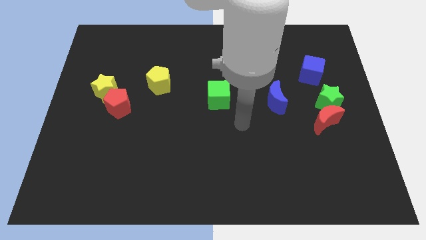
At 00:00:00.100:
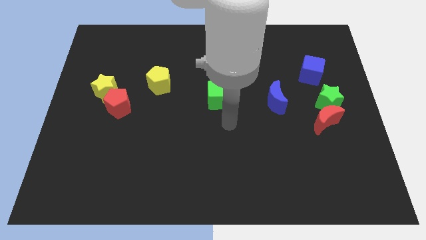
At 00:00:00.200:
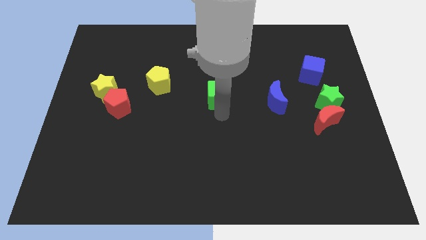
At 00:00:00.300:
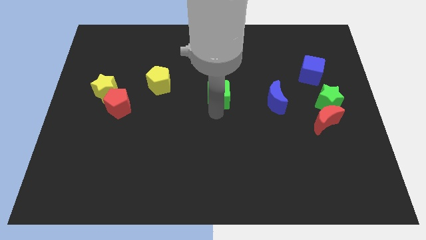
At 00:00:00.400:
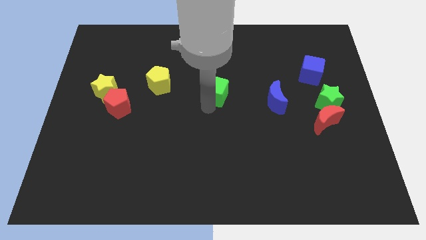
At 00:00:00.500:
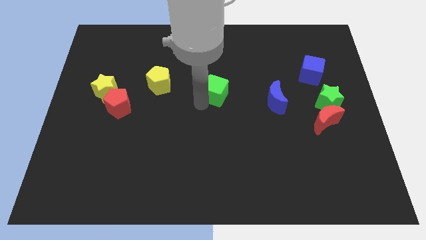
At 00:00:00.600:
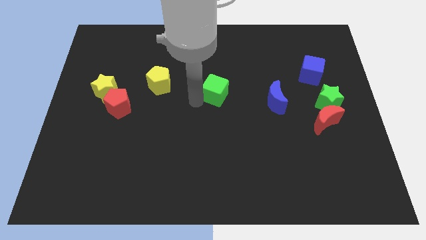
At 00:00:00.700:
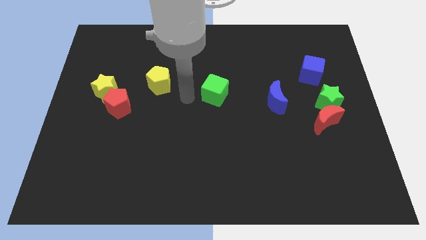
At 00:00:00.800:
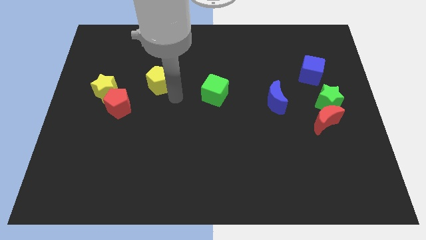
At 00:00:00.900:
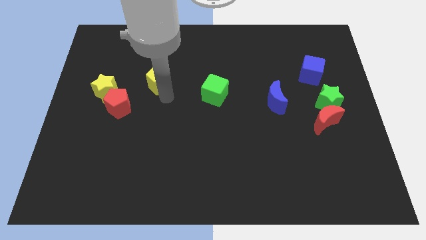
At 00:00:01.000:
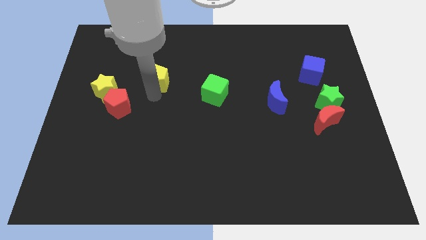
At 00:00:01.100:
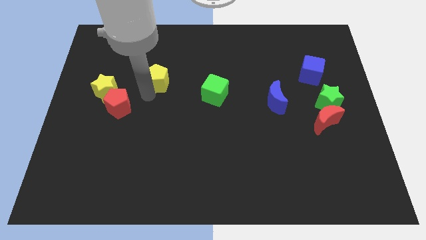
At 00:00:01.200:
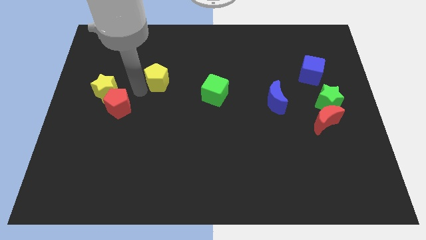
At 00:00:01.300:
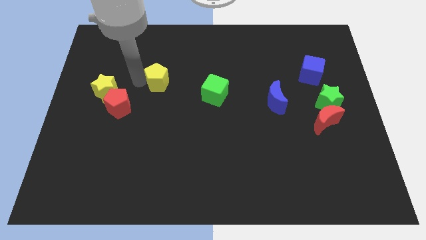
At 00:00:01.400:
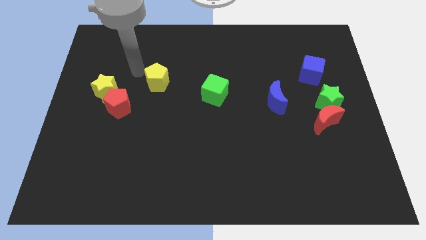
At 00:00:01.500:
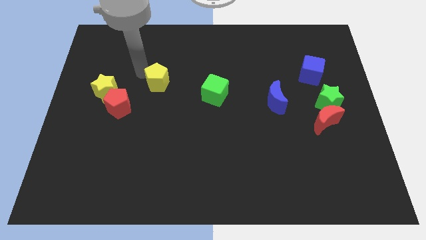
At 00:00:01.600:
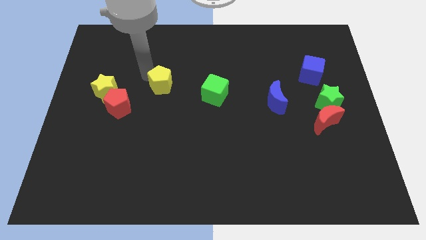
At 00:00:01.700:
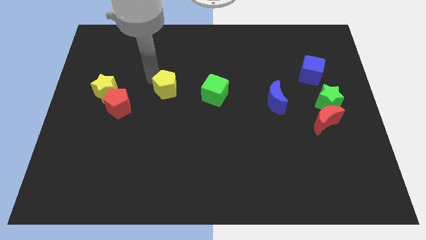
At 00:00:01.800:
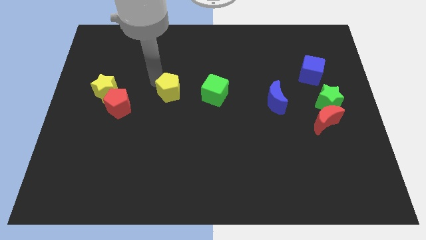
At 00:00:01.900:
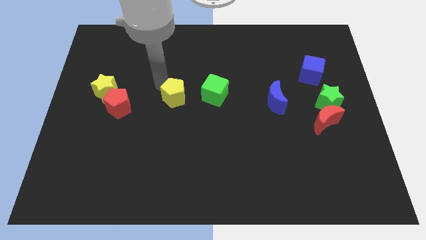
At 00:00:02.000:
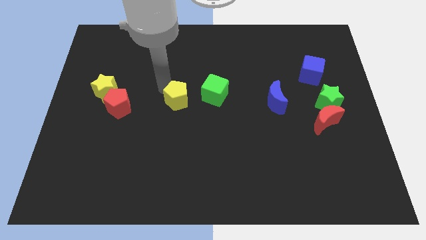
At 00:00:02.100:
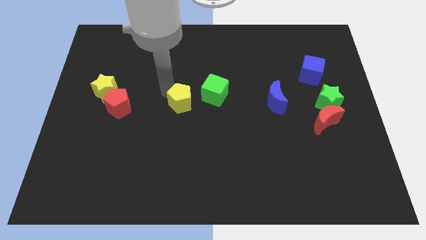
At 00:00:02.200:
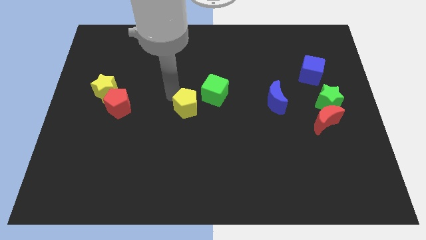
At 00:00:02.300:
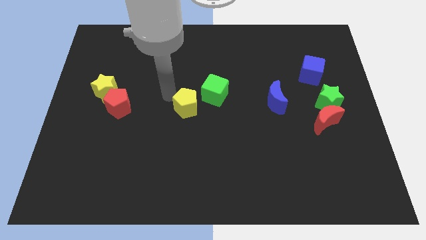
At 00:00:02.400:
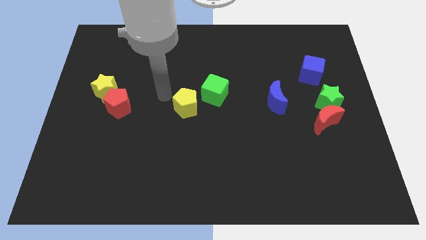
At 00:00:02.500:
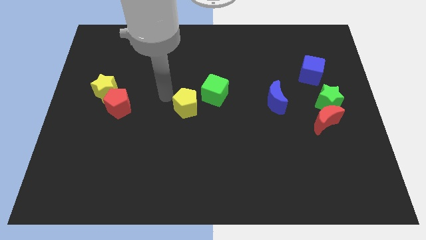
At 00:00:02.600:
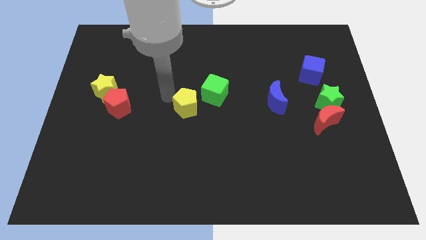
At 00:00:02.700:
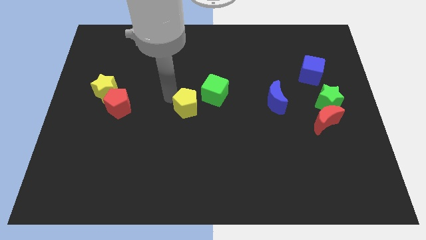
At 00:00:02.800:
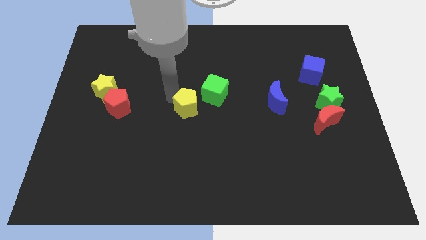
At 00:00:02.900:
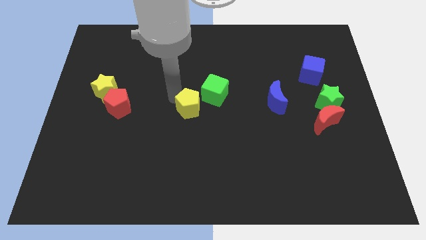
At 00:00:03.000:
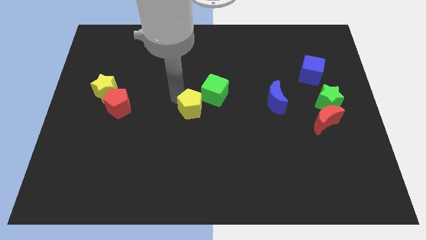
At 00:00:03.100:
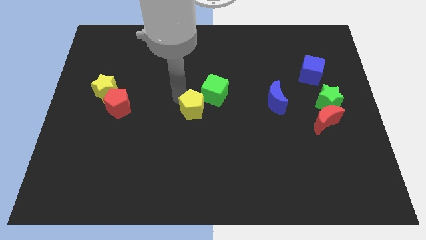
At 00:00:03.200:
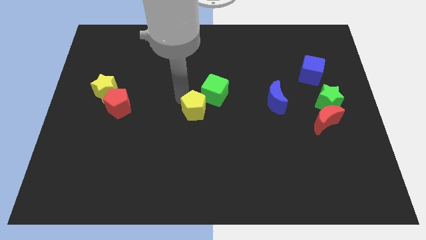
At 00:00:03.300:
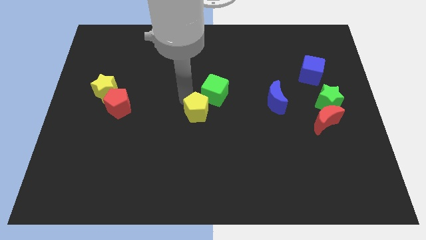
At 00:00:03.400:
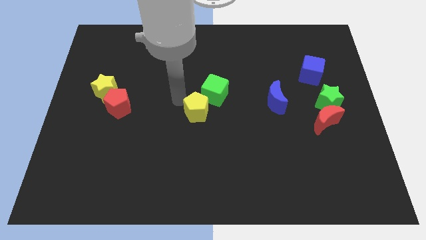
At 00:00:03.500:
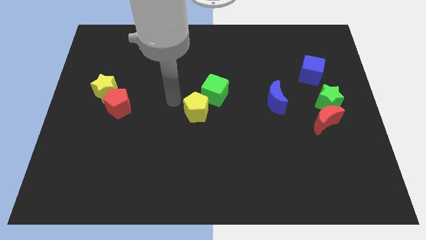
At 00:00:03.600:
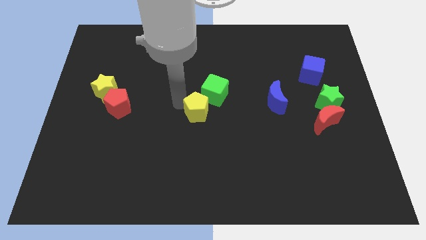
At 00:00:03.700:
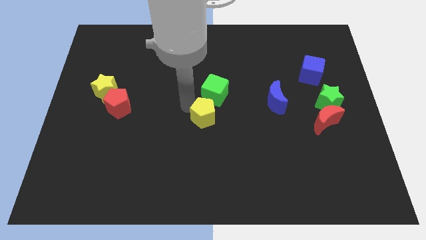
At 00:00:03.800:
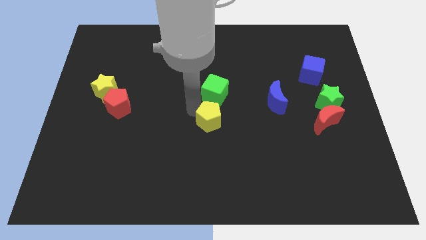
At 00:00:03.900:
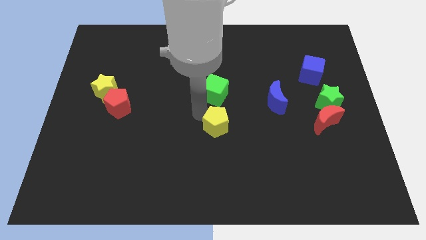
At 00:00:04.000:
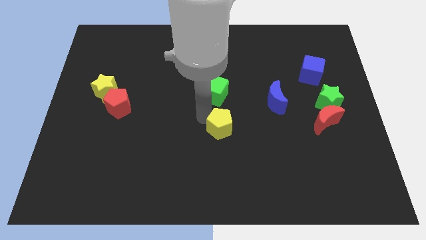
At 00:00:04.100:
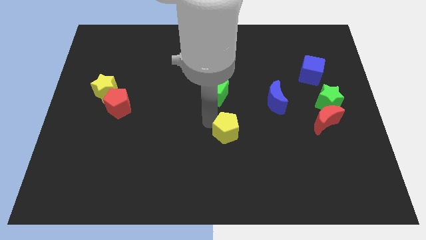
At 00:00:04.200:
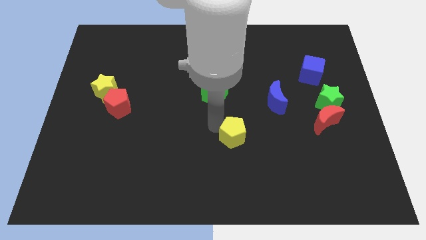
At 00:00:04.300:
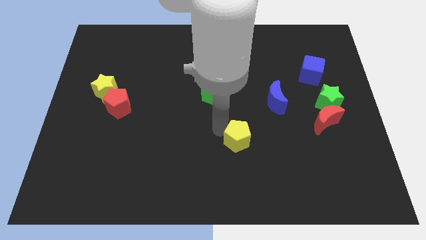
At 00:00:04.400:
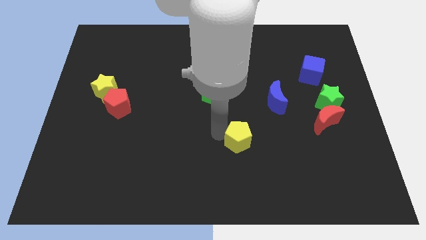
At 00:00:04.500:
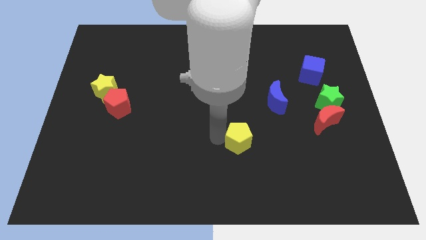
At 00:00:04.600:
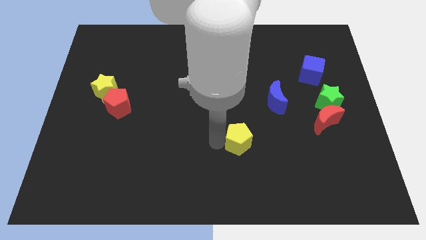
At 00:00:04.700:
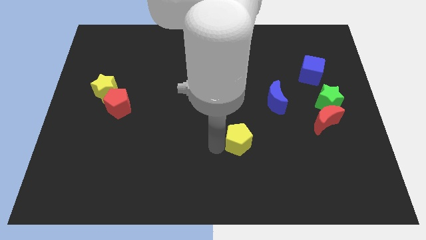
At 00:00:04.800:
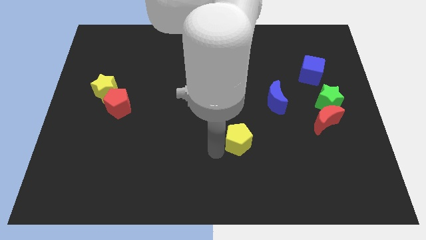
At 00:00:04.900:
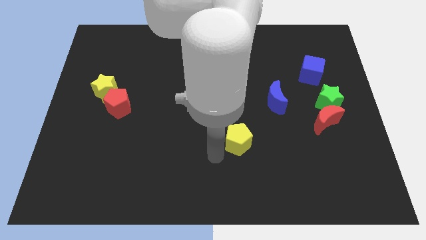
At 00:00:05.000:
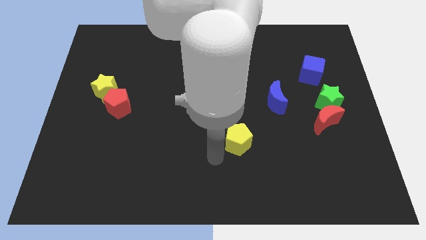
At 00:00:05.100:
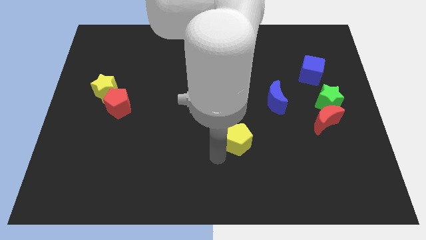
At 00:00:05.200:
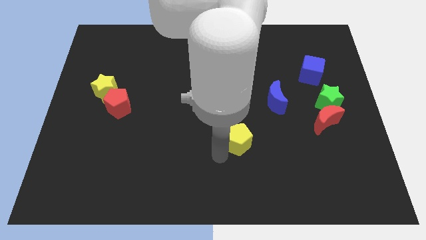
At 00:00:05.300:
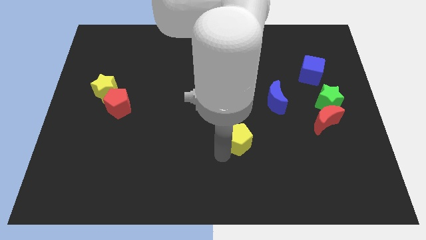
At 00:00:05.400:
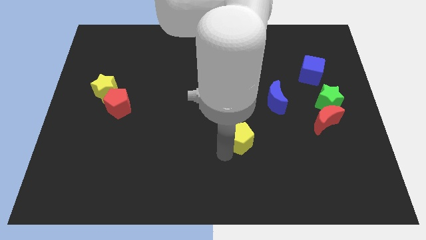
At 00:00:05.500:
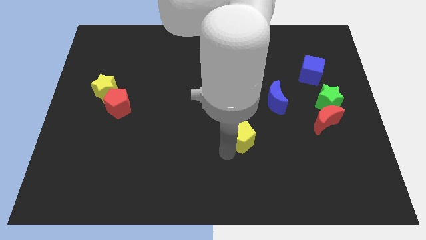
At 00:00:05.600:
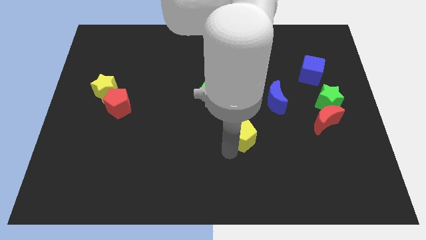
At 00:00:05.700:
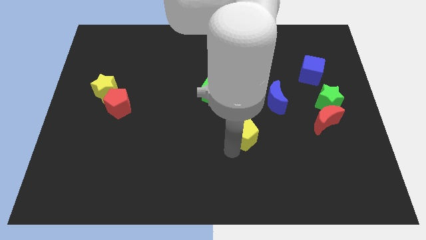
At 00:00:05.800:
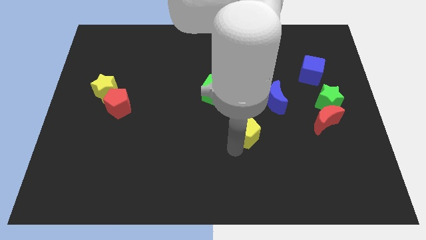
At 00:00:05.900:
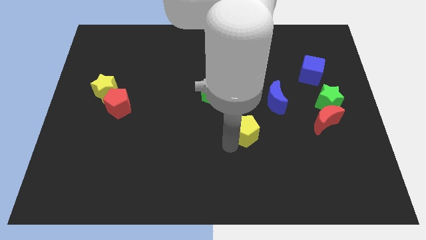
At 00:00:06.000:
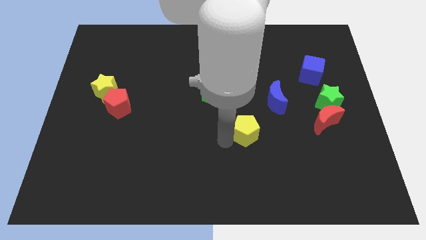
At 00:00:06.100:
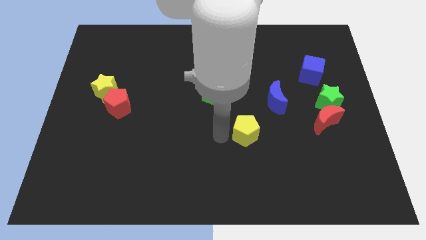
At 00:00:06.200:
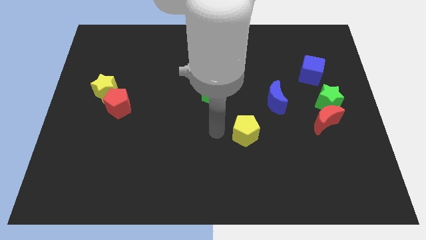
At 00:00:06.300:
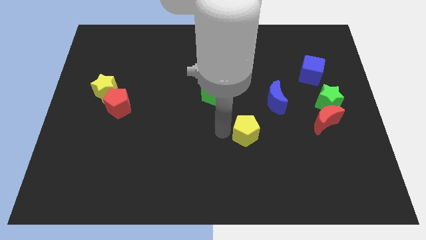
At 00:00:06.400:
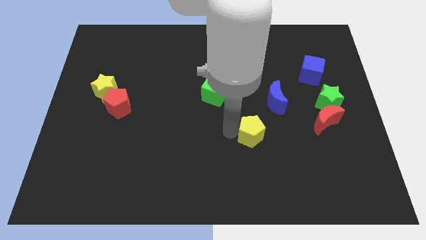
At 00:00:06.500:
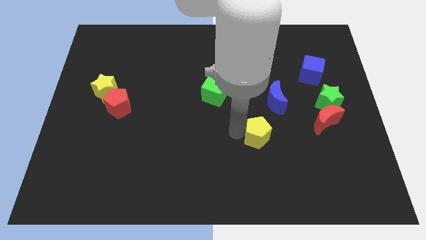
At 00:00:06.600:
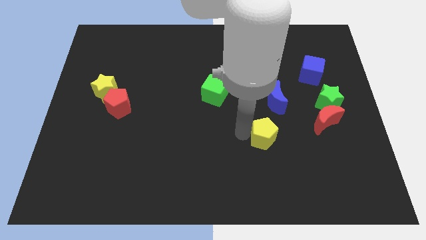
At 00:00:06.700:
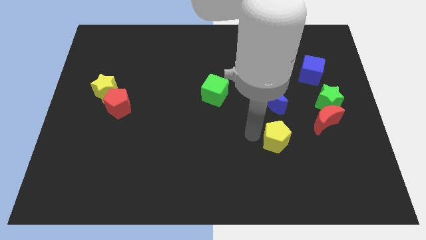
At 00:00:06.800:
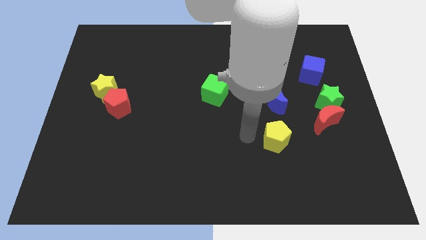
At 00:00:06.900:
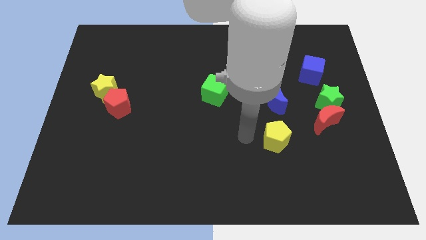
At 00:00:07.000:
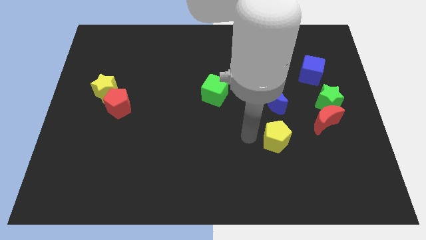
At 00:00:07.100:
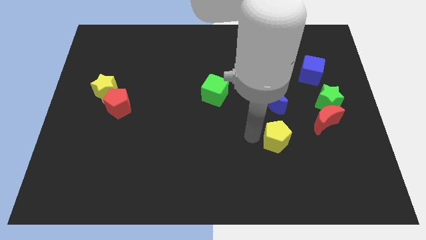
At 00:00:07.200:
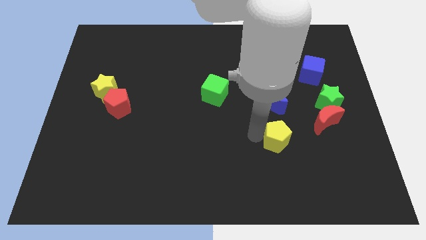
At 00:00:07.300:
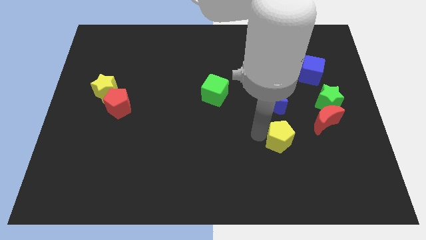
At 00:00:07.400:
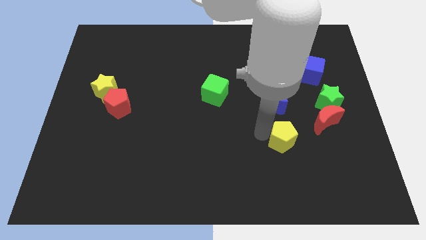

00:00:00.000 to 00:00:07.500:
put the yellow pentagon to the bottom left of the red moon
